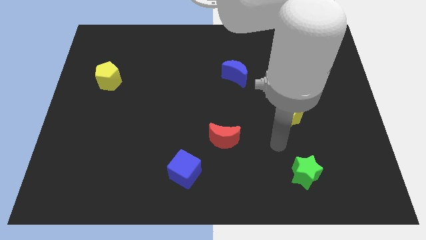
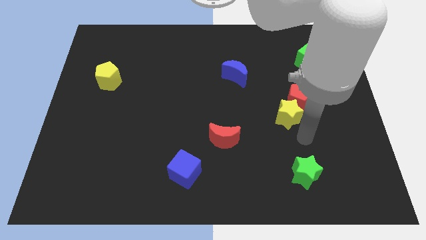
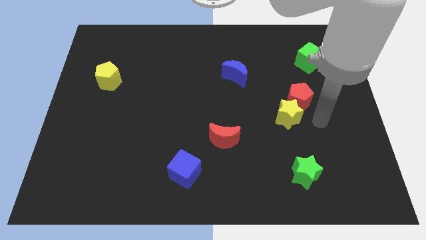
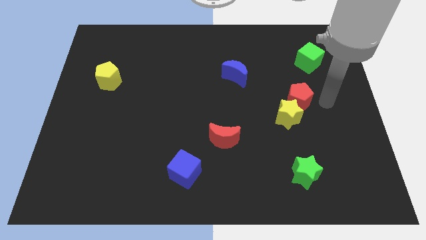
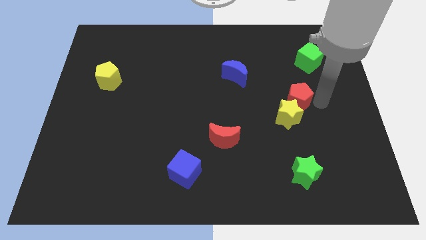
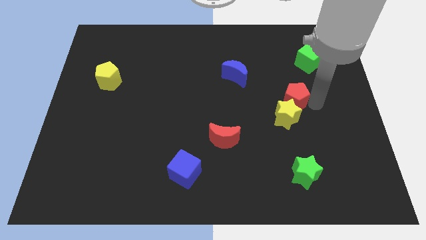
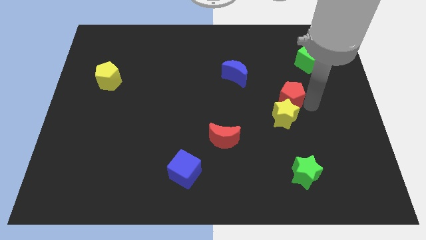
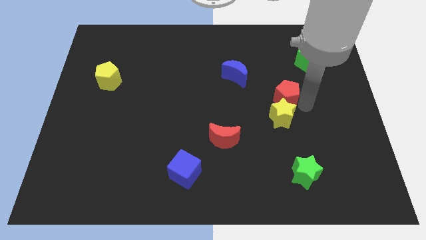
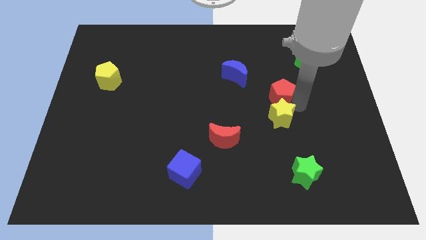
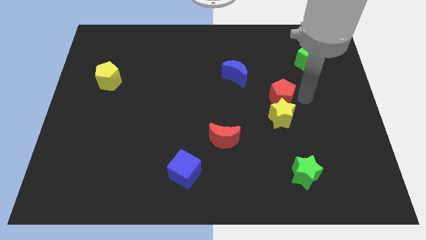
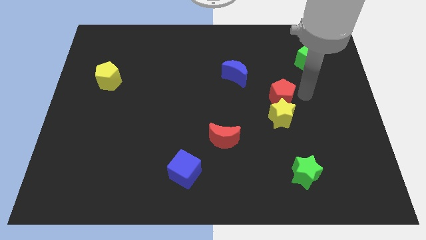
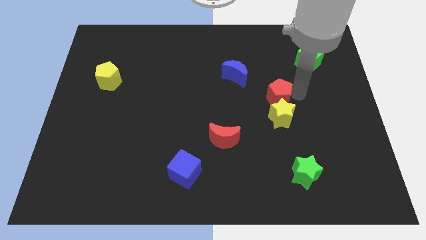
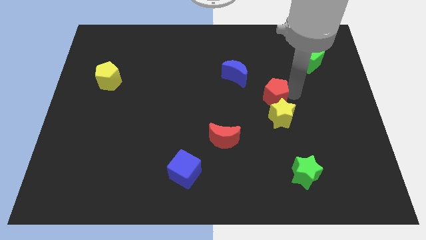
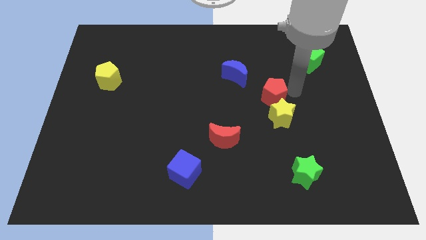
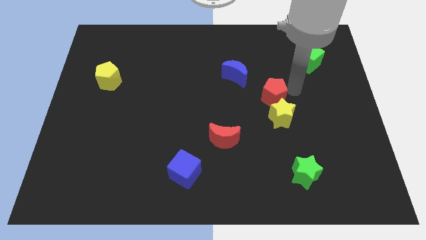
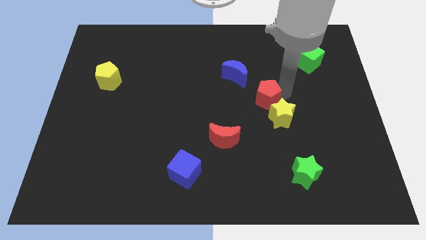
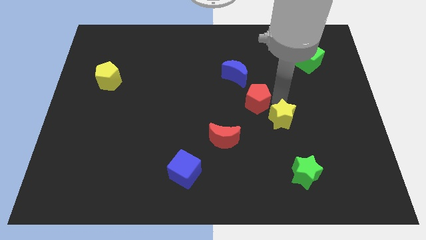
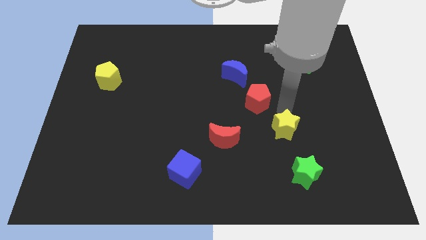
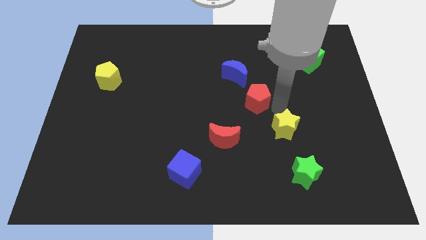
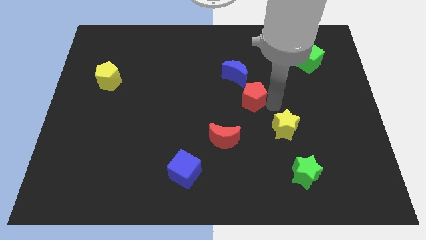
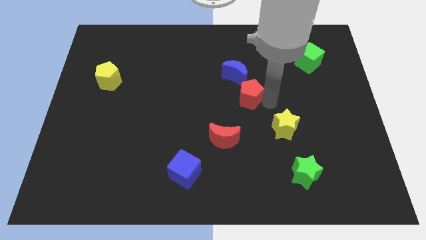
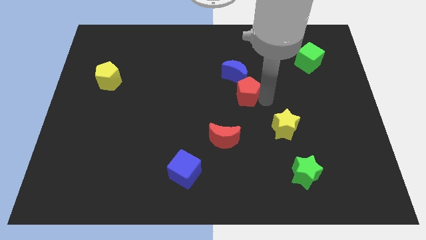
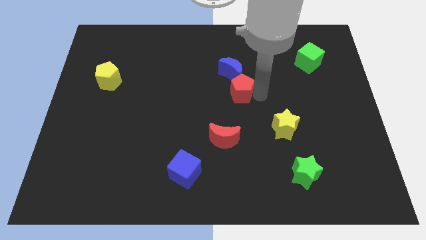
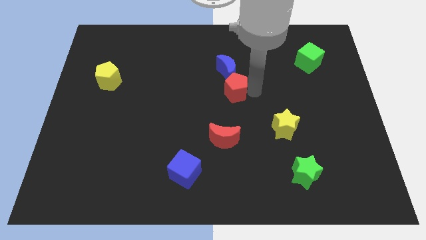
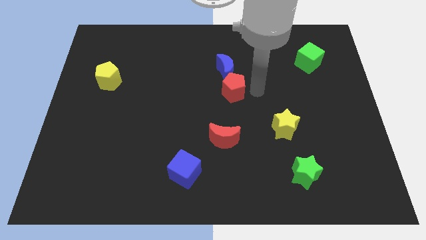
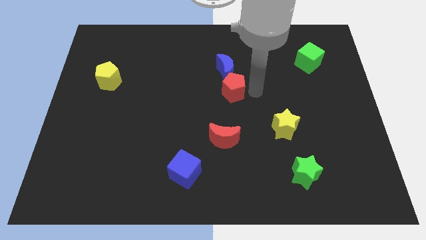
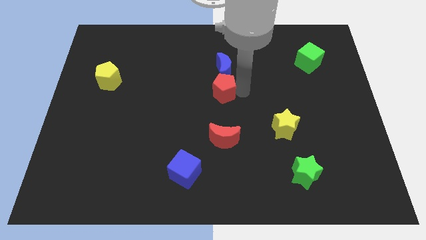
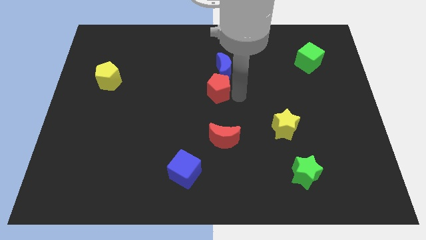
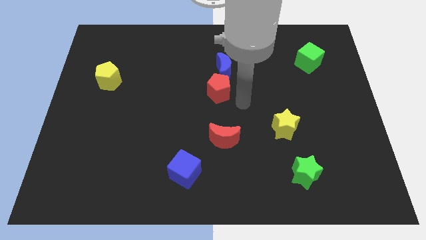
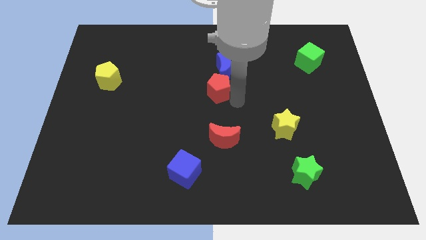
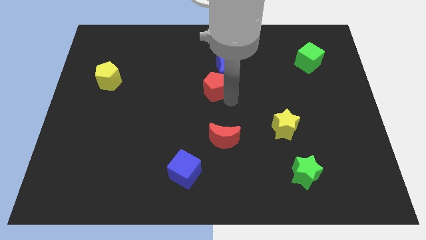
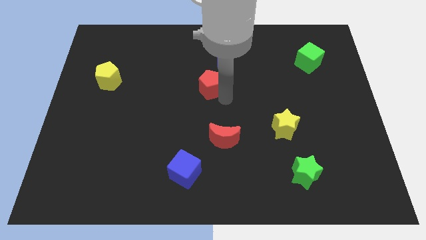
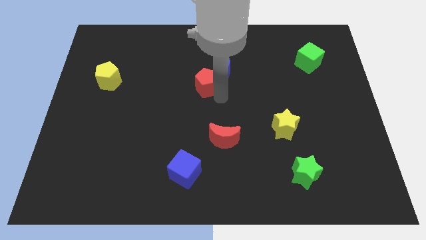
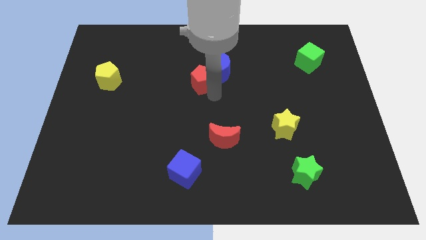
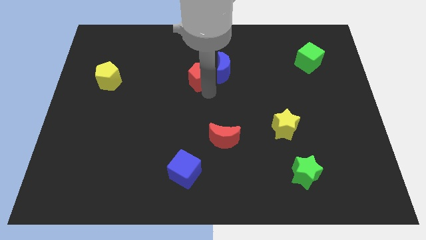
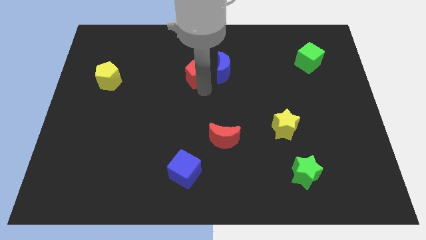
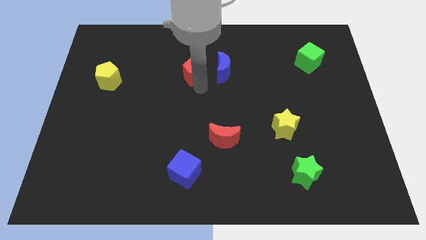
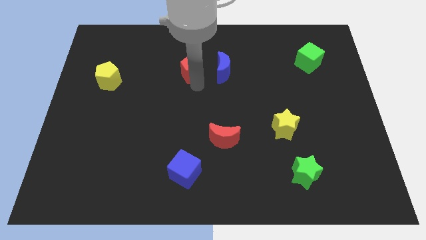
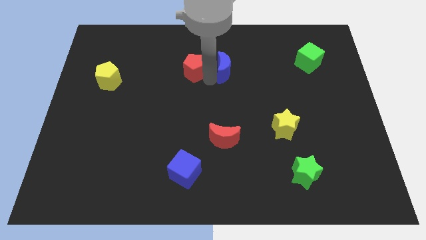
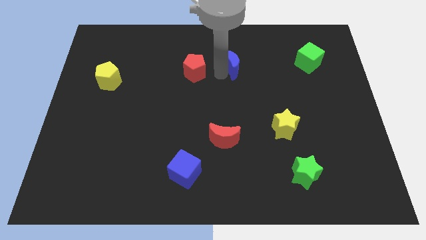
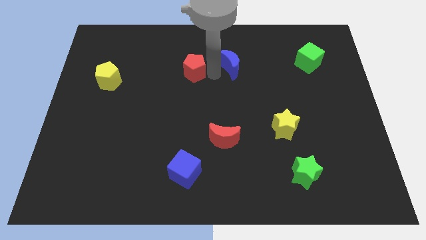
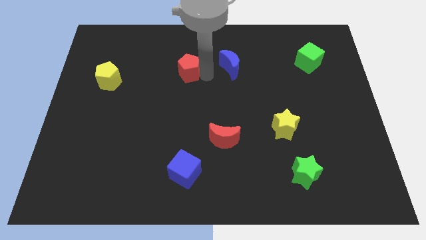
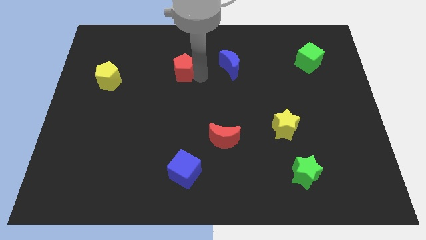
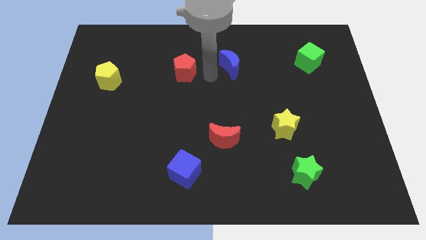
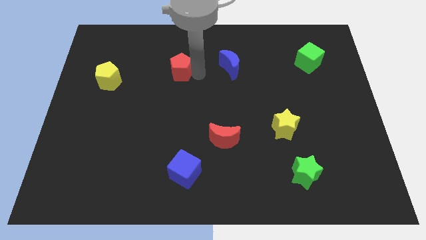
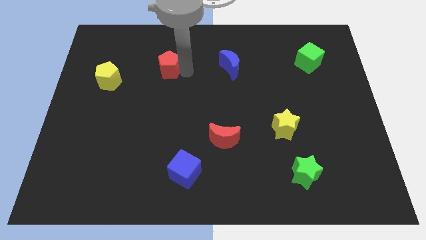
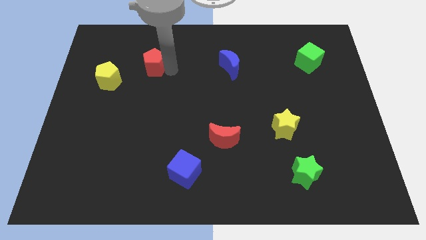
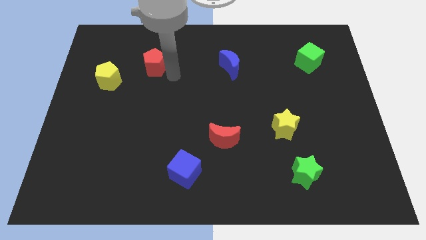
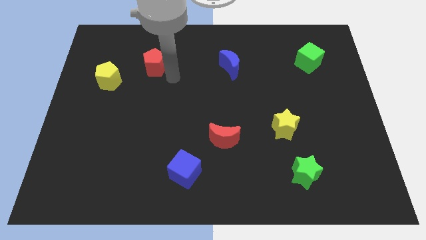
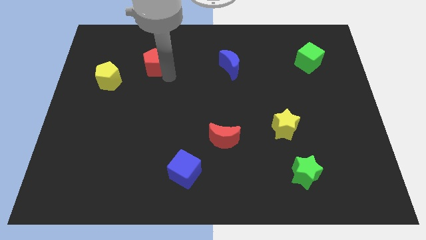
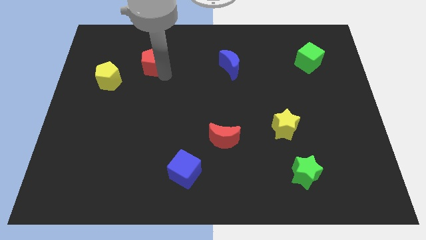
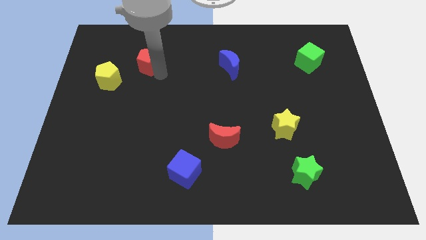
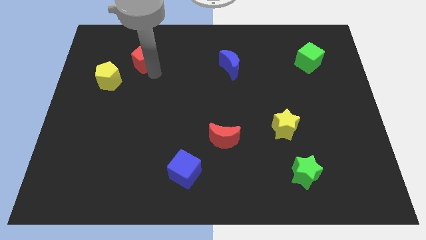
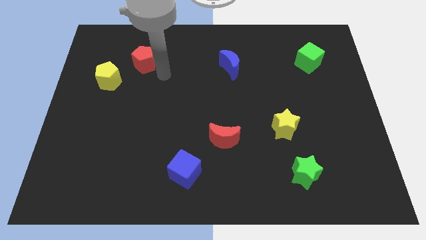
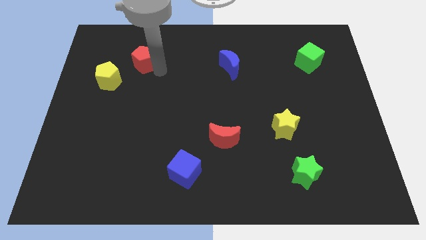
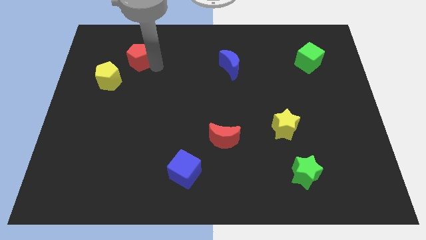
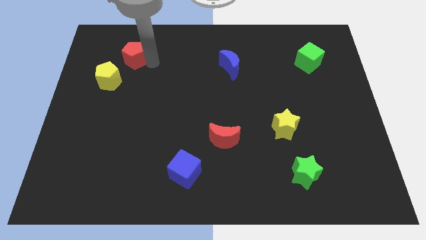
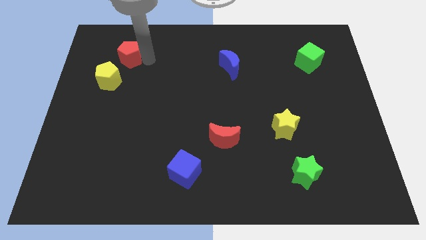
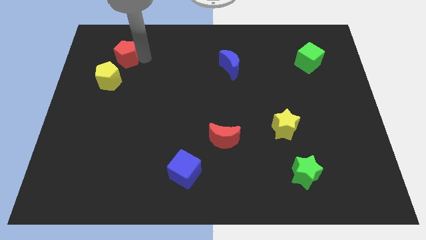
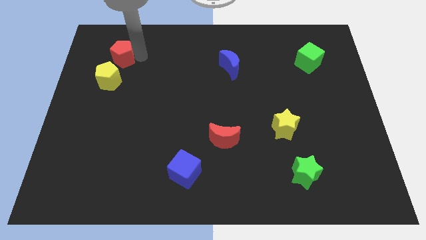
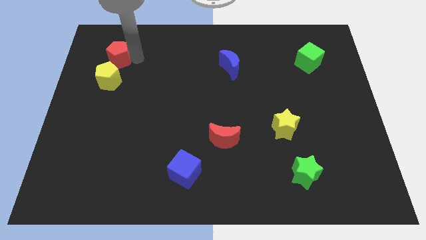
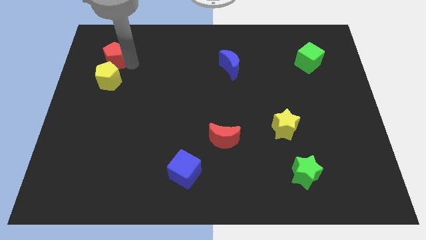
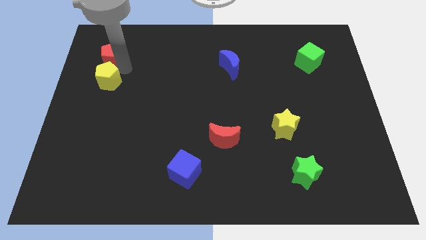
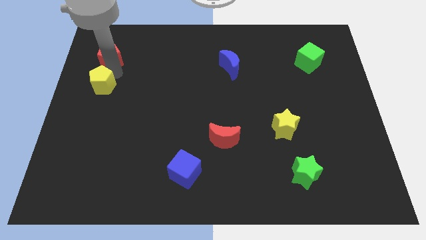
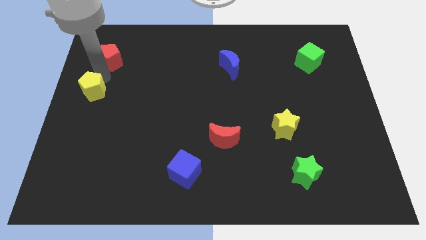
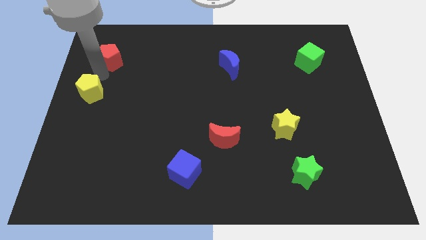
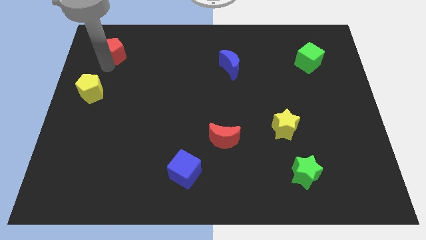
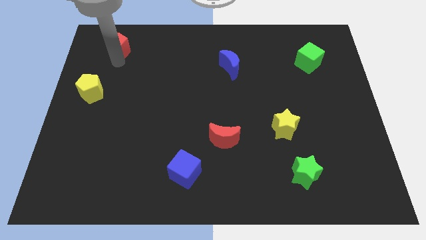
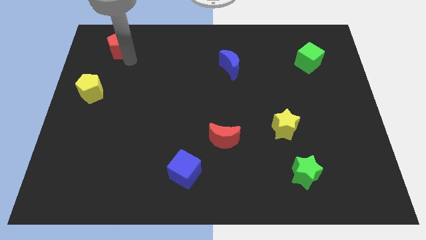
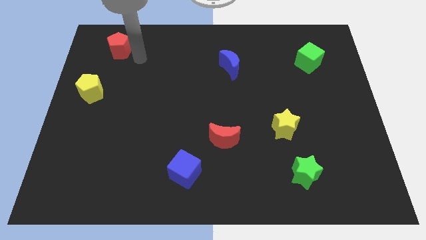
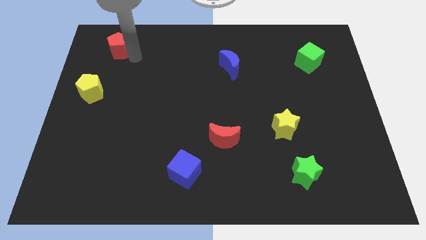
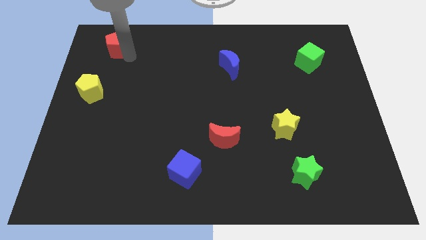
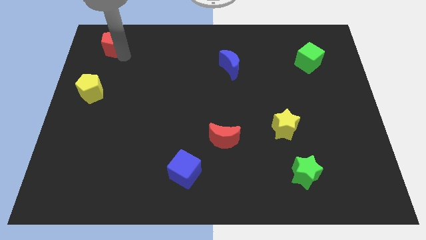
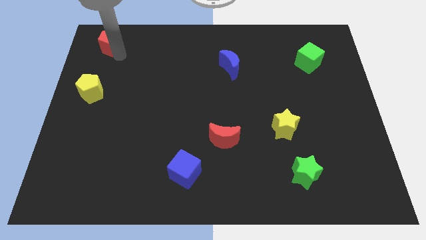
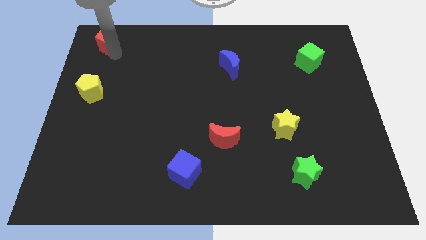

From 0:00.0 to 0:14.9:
move the red pentagon to the top left of the board
